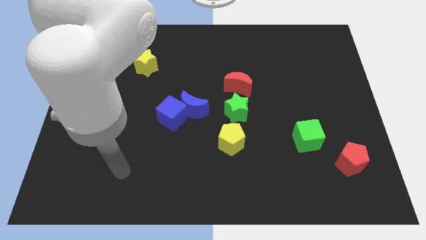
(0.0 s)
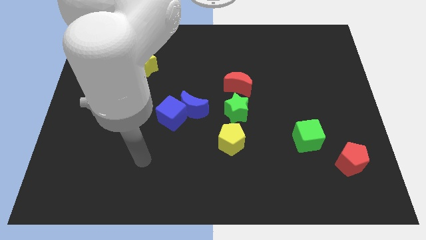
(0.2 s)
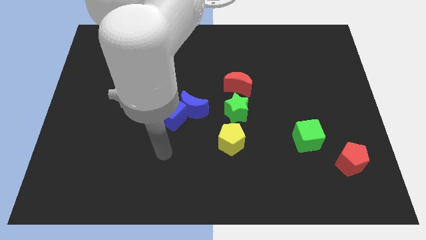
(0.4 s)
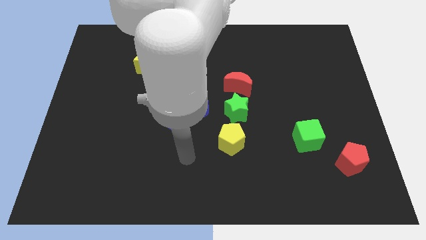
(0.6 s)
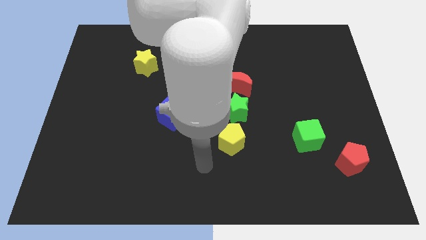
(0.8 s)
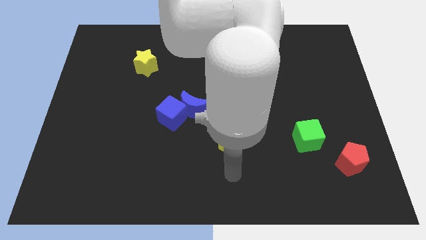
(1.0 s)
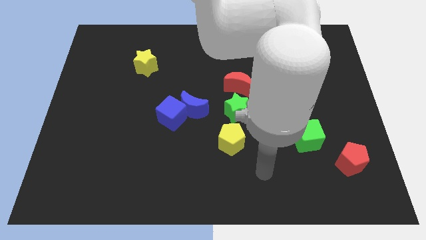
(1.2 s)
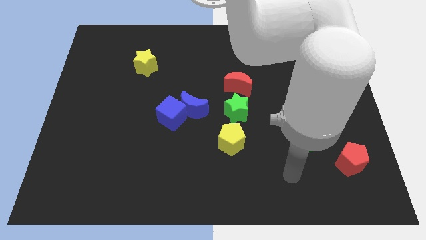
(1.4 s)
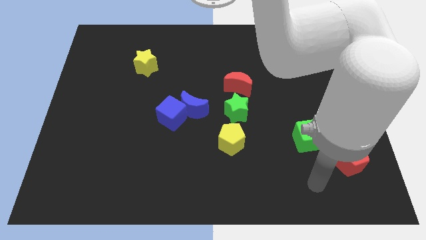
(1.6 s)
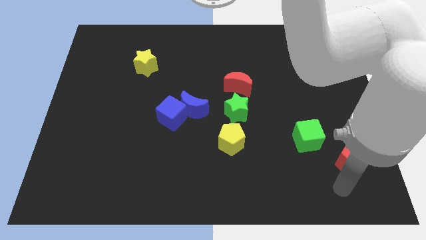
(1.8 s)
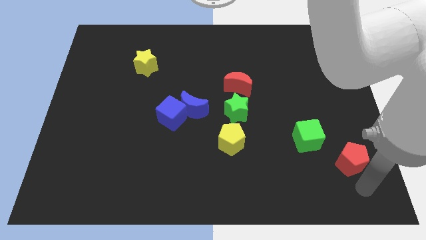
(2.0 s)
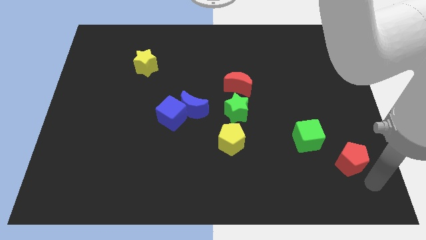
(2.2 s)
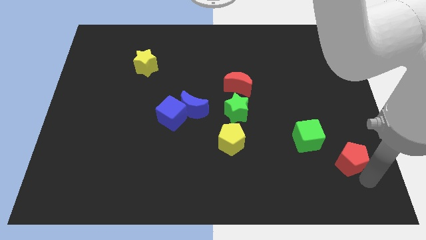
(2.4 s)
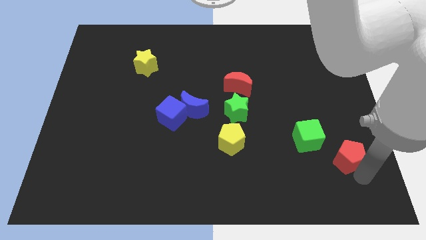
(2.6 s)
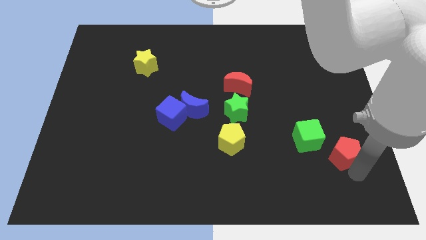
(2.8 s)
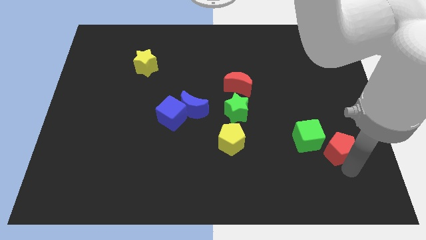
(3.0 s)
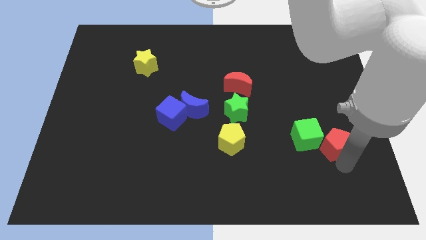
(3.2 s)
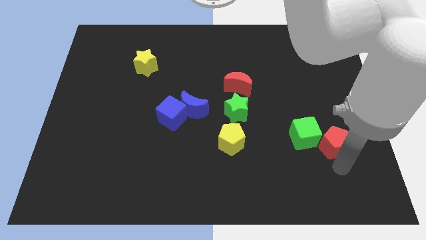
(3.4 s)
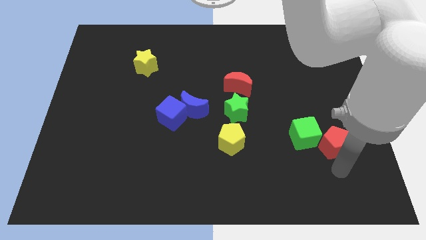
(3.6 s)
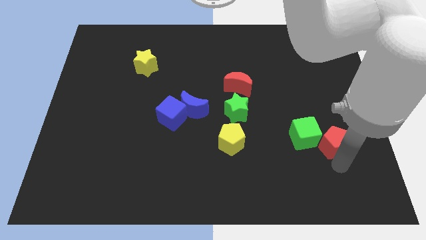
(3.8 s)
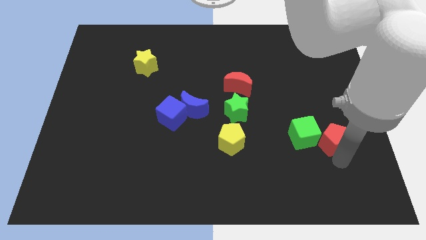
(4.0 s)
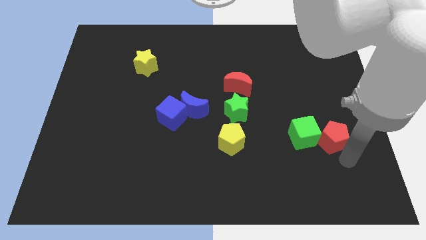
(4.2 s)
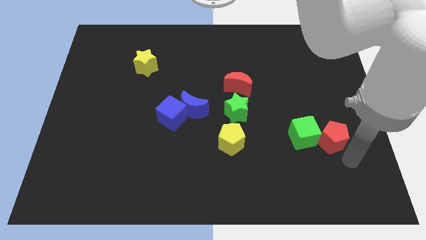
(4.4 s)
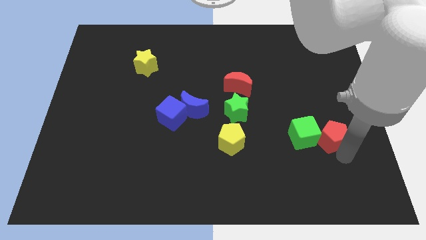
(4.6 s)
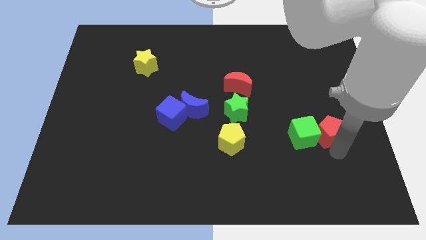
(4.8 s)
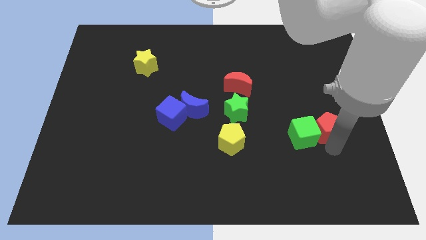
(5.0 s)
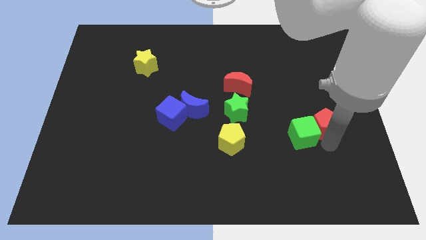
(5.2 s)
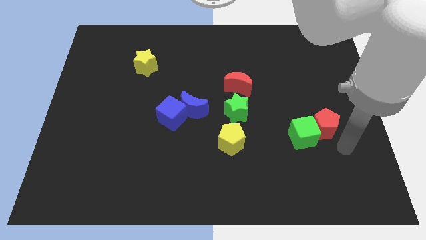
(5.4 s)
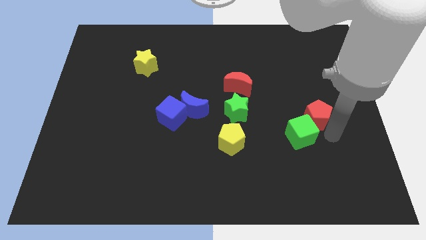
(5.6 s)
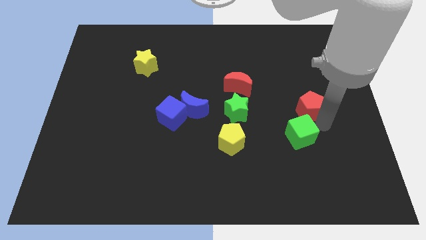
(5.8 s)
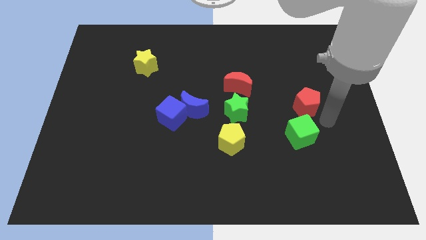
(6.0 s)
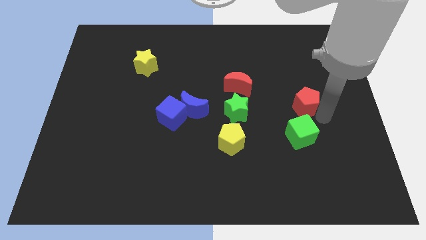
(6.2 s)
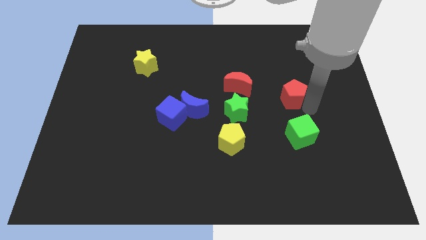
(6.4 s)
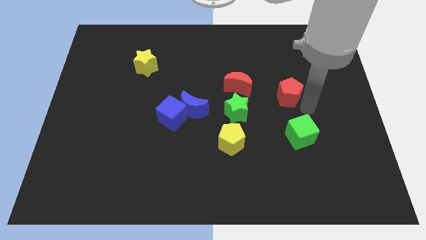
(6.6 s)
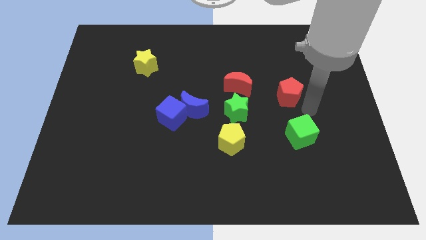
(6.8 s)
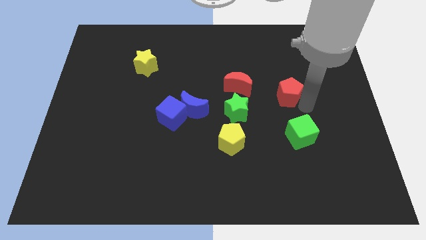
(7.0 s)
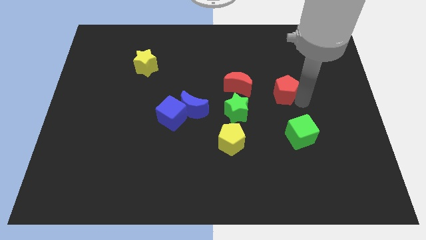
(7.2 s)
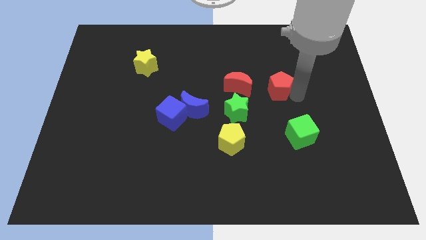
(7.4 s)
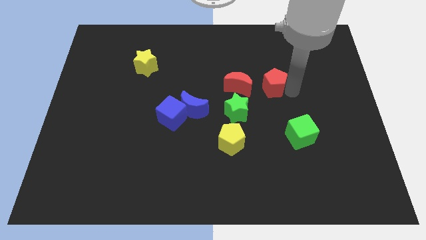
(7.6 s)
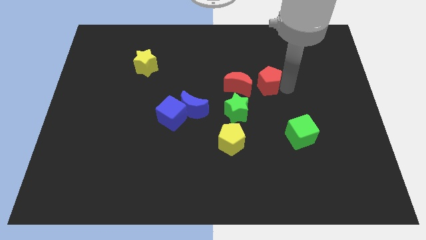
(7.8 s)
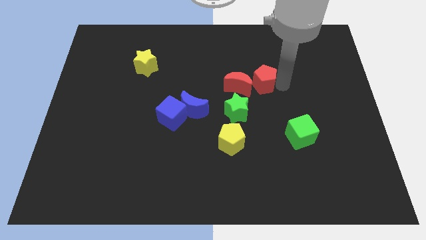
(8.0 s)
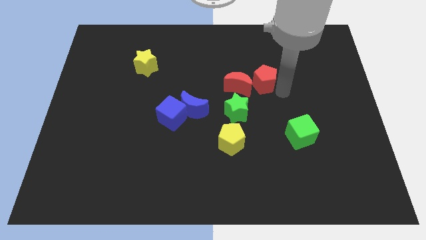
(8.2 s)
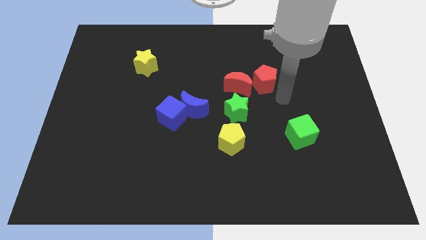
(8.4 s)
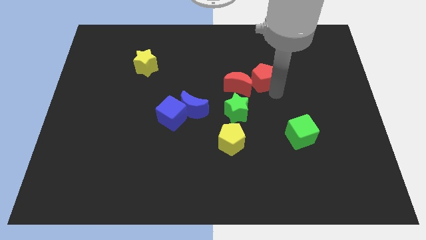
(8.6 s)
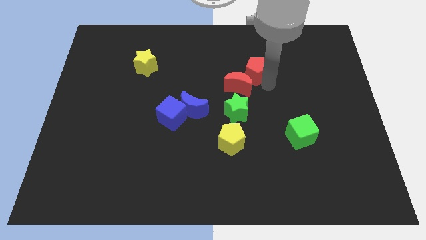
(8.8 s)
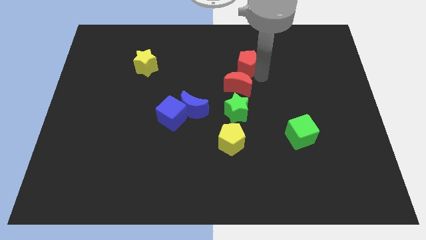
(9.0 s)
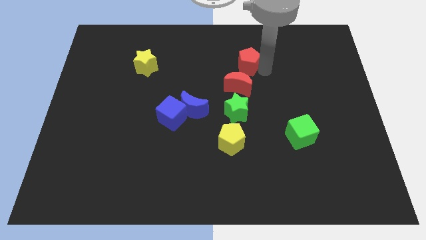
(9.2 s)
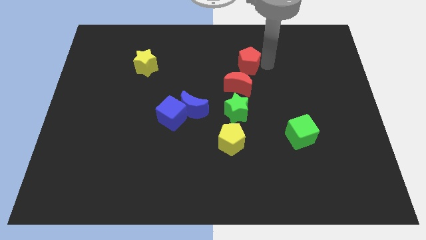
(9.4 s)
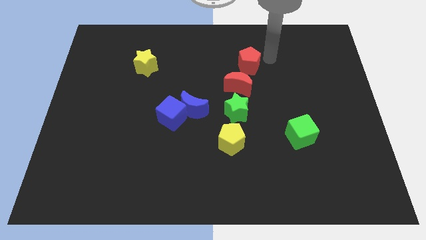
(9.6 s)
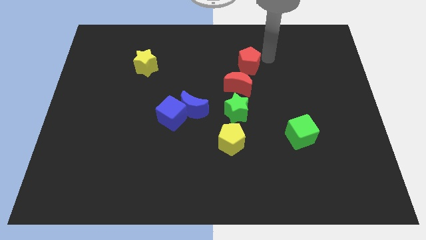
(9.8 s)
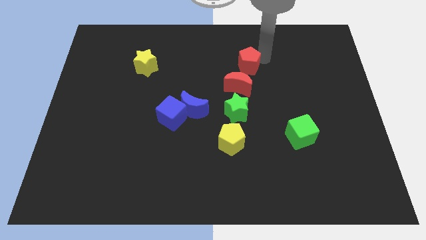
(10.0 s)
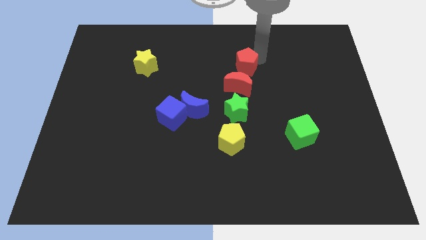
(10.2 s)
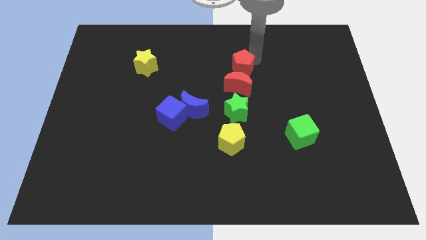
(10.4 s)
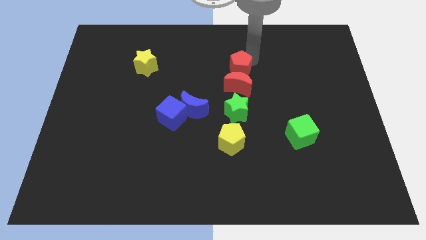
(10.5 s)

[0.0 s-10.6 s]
slide the red pentagon diagonally up and to the left of the red moon

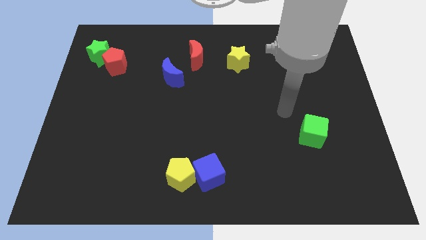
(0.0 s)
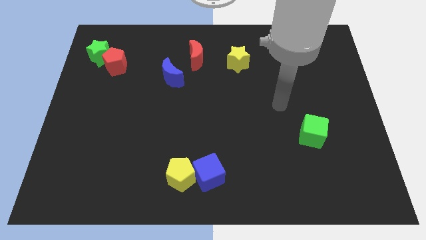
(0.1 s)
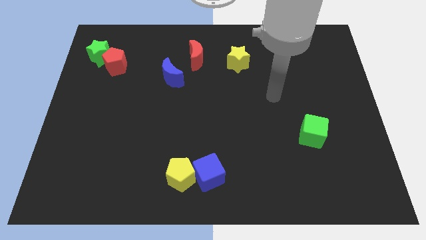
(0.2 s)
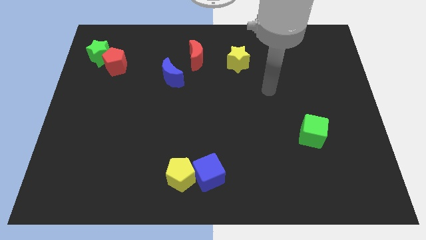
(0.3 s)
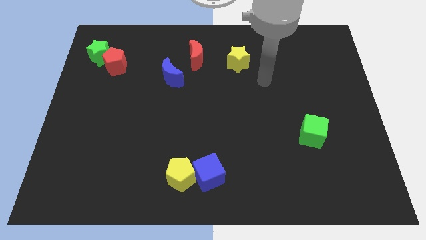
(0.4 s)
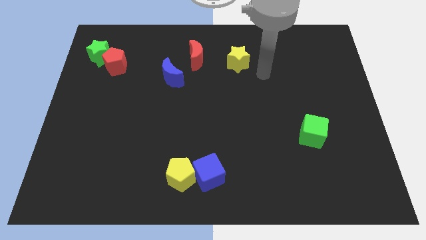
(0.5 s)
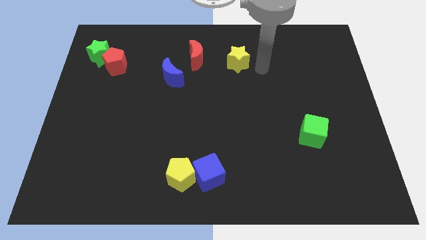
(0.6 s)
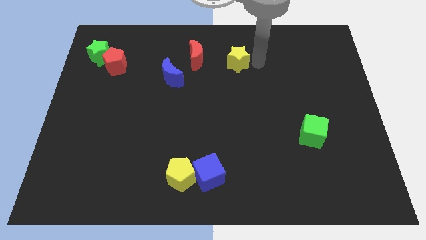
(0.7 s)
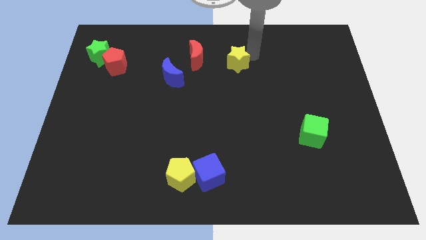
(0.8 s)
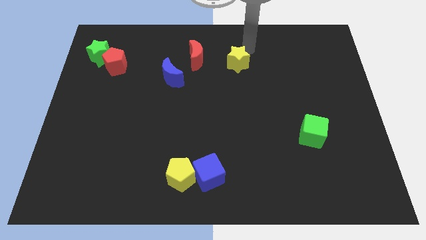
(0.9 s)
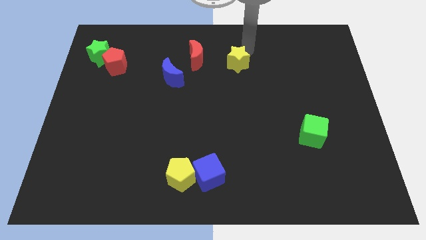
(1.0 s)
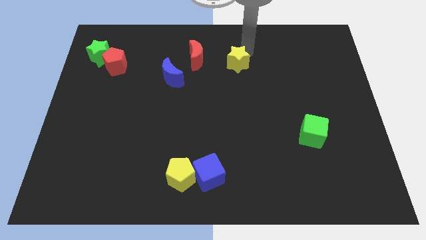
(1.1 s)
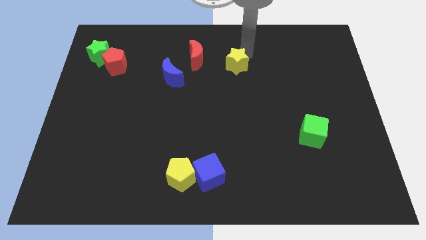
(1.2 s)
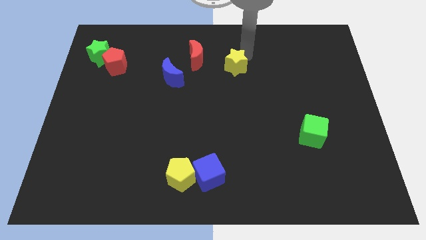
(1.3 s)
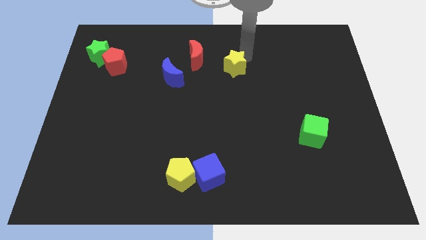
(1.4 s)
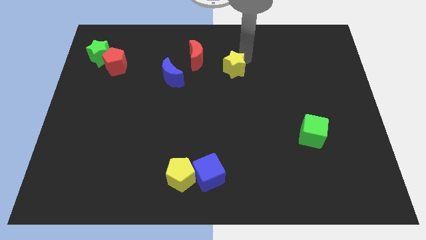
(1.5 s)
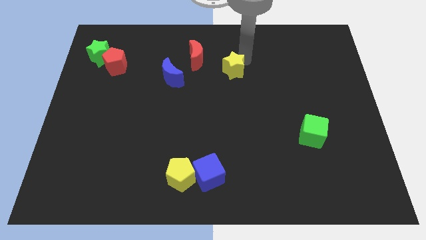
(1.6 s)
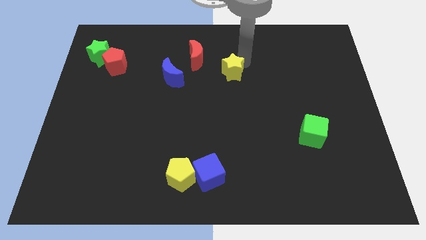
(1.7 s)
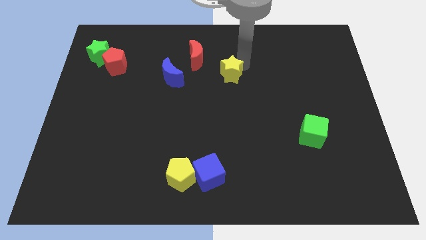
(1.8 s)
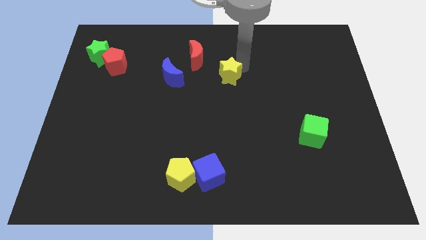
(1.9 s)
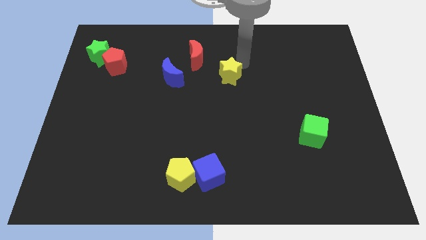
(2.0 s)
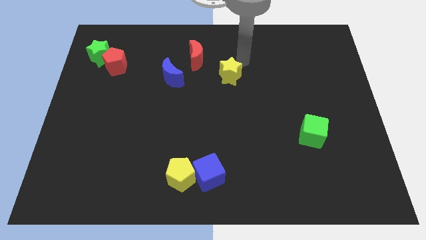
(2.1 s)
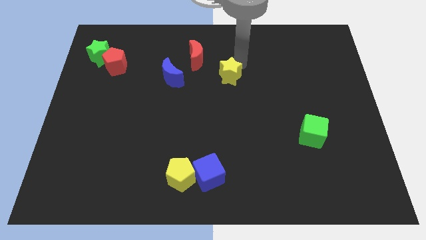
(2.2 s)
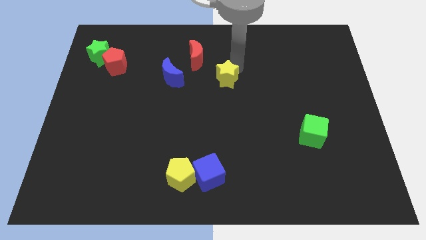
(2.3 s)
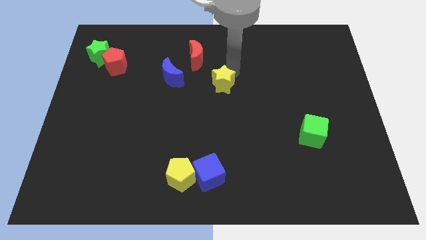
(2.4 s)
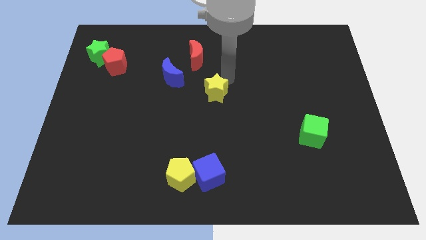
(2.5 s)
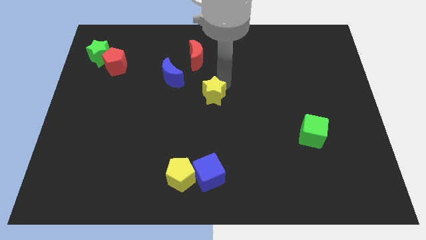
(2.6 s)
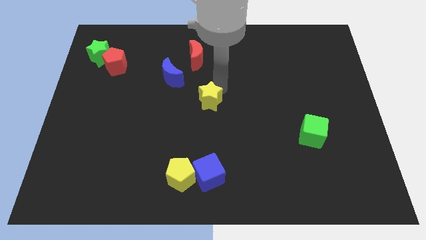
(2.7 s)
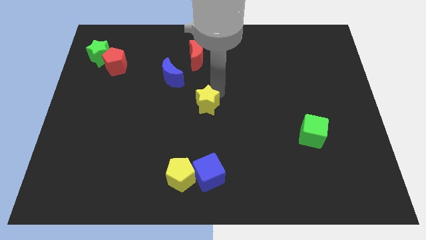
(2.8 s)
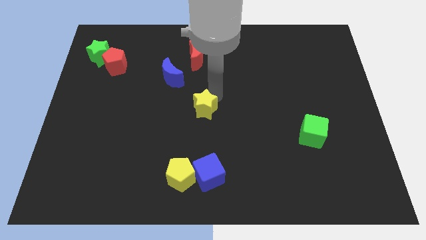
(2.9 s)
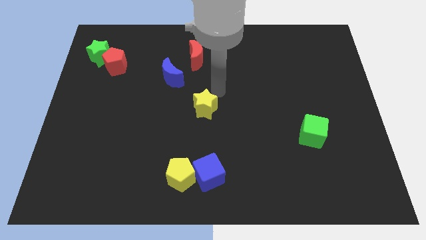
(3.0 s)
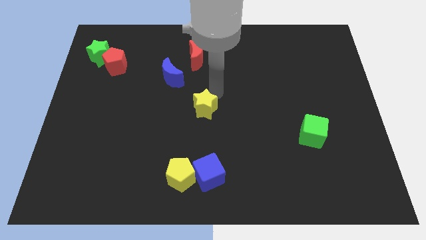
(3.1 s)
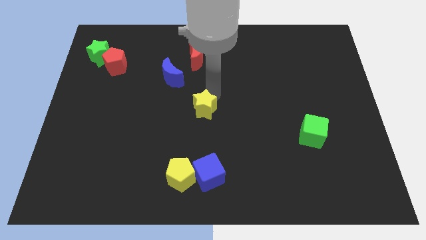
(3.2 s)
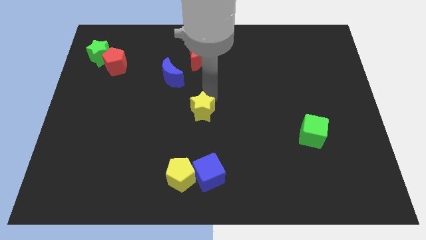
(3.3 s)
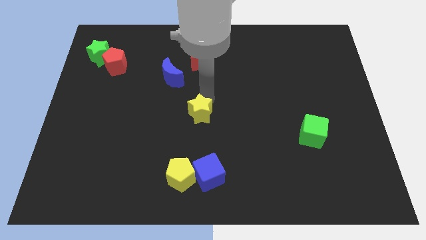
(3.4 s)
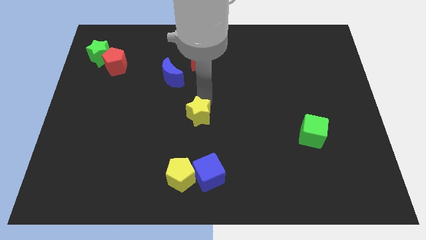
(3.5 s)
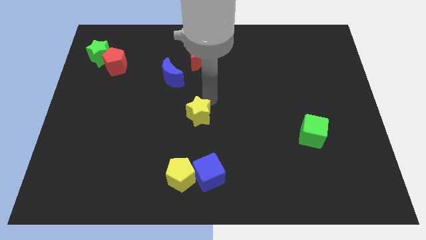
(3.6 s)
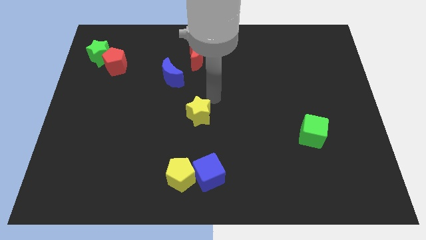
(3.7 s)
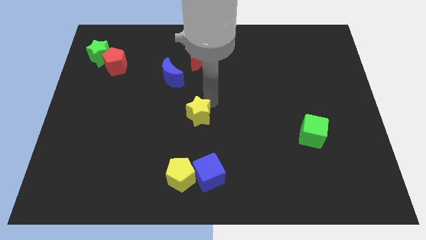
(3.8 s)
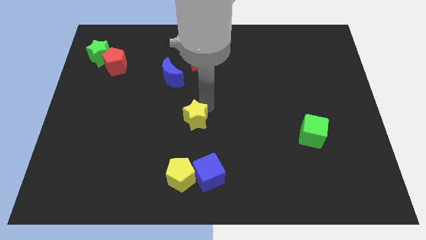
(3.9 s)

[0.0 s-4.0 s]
push the yellow star above the yellow pentagon
